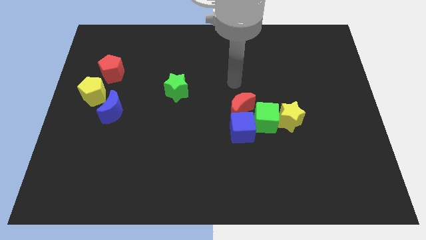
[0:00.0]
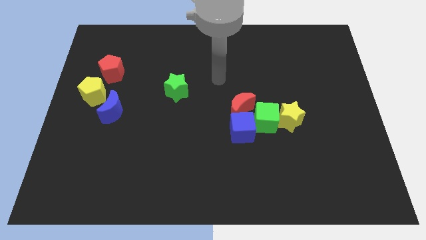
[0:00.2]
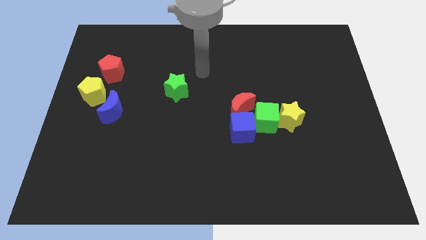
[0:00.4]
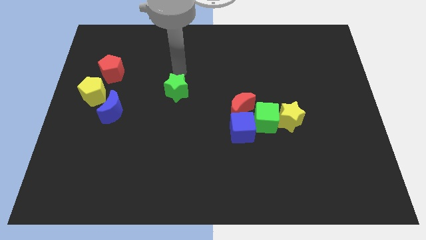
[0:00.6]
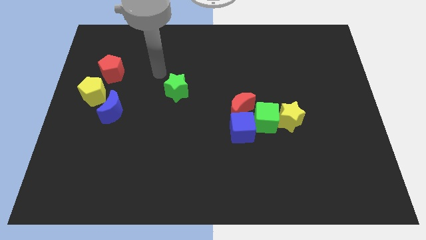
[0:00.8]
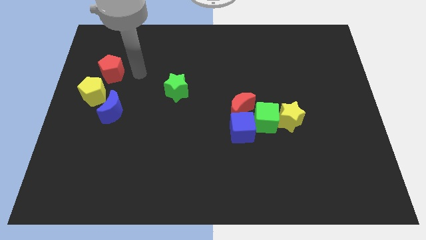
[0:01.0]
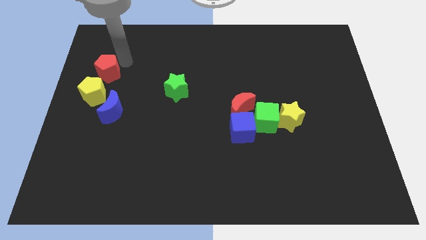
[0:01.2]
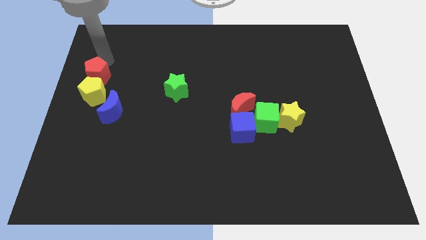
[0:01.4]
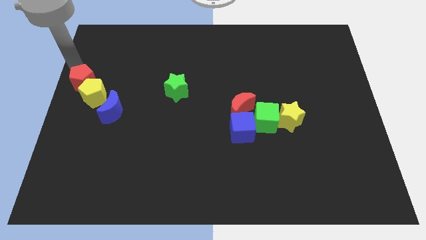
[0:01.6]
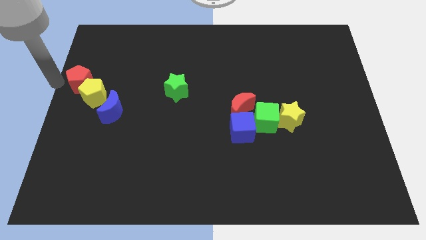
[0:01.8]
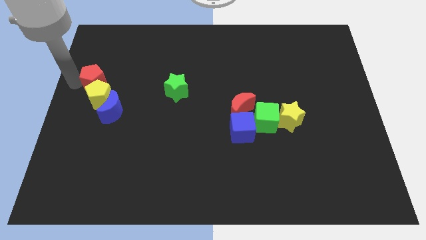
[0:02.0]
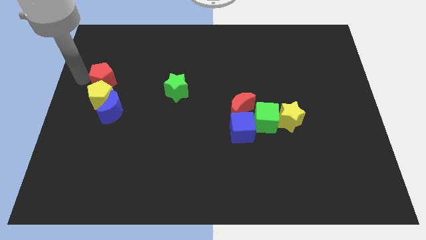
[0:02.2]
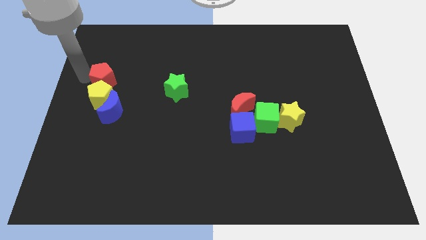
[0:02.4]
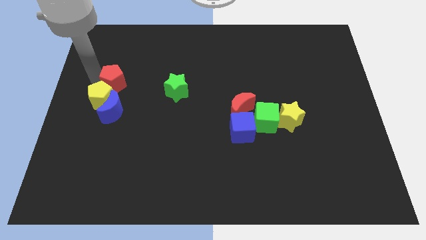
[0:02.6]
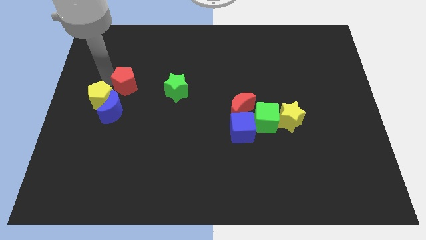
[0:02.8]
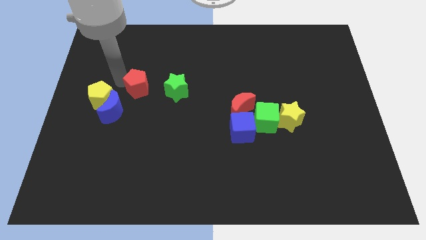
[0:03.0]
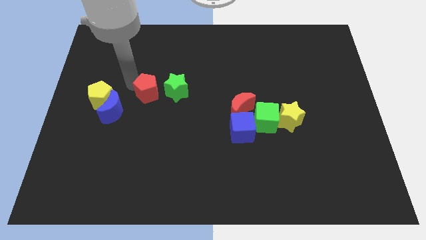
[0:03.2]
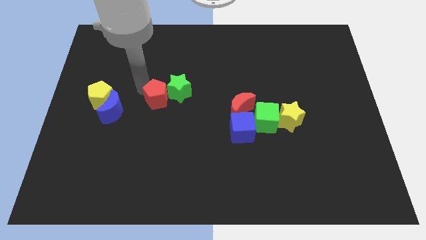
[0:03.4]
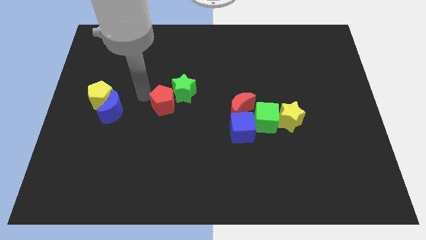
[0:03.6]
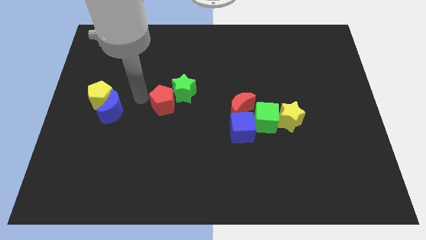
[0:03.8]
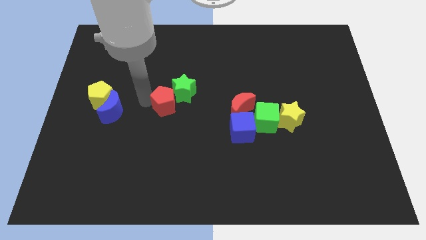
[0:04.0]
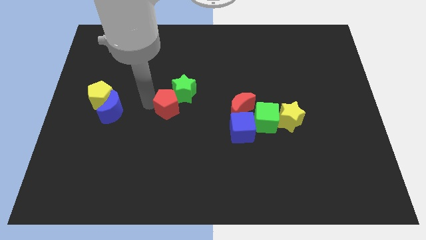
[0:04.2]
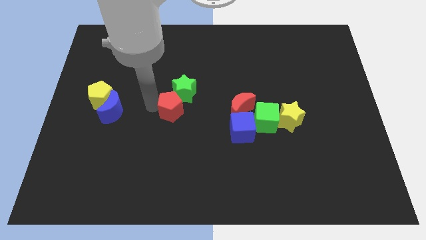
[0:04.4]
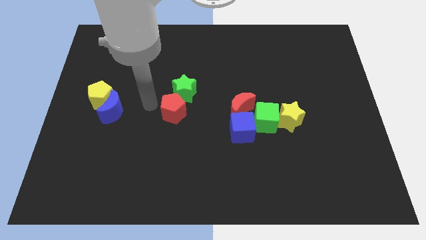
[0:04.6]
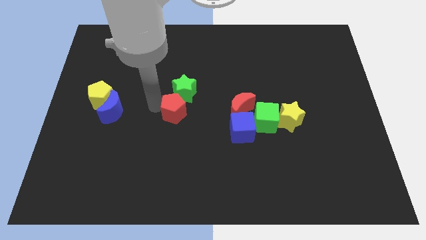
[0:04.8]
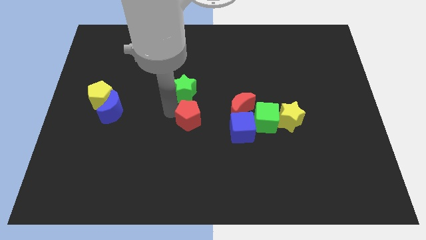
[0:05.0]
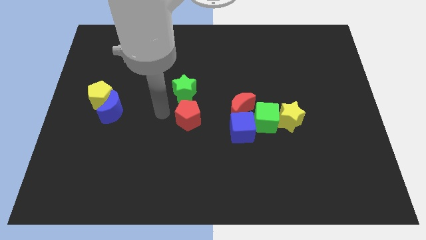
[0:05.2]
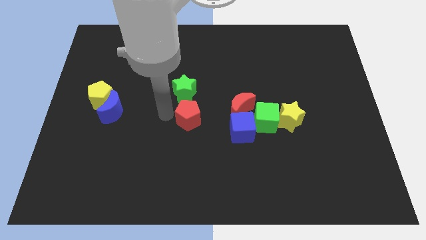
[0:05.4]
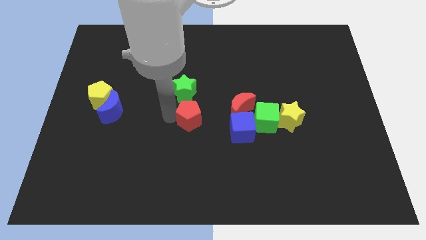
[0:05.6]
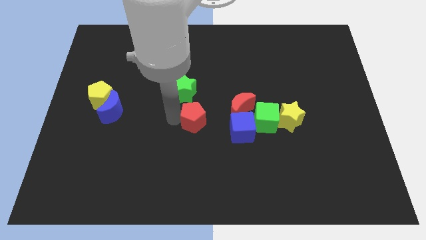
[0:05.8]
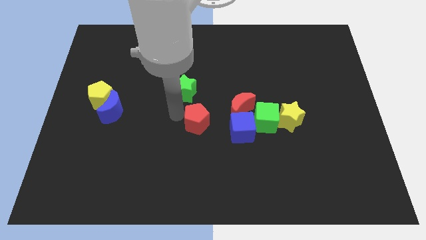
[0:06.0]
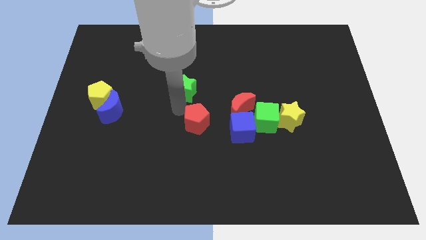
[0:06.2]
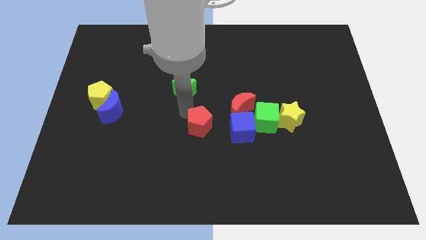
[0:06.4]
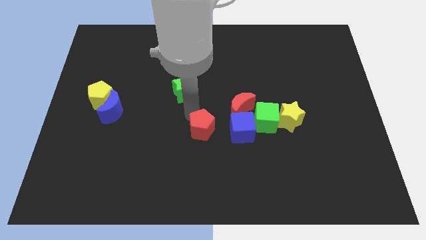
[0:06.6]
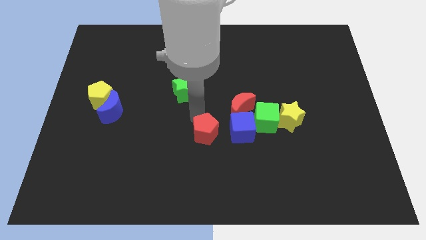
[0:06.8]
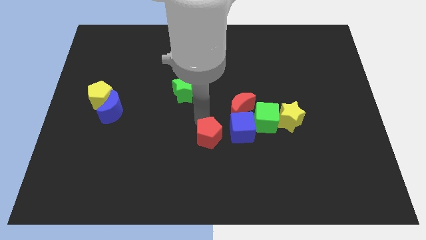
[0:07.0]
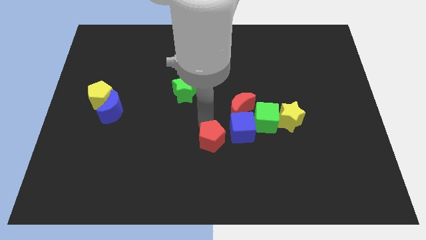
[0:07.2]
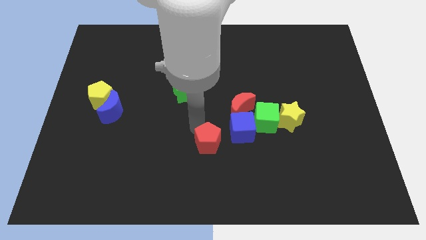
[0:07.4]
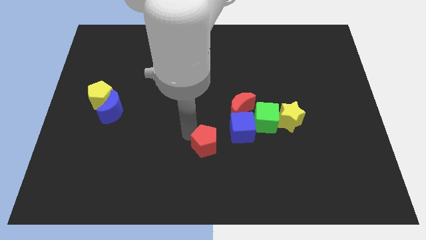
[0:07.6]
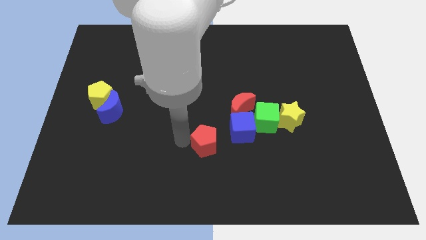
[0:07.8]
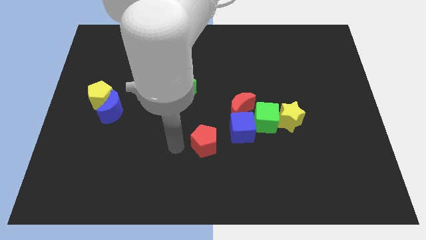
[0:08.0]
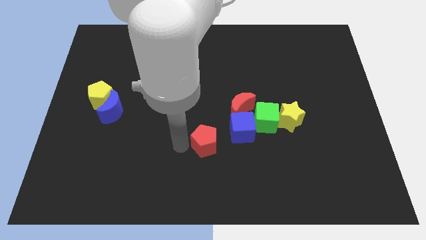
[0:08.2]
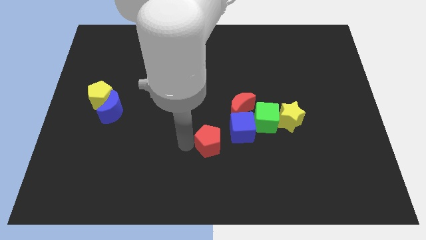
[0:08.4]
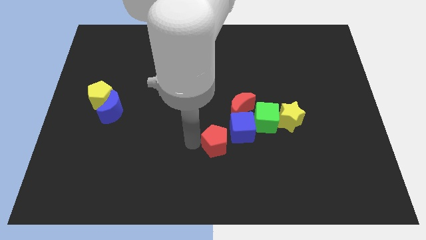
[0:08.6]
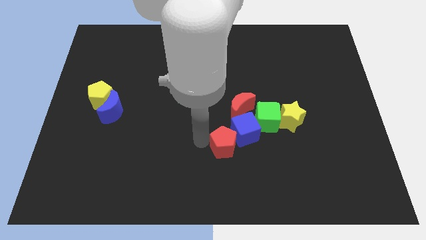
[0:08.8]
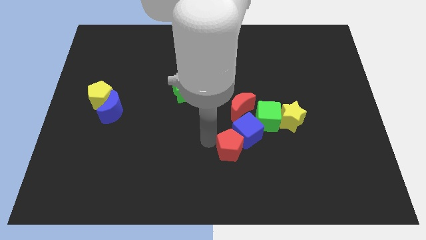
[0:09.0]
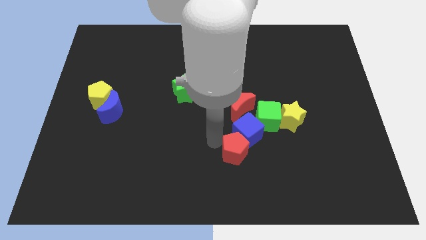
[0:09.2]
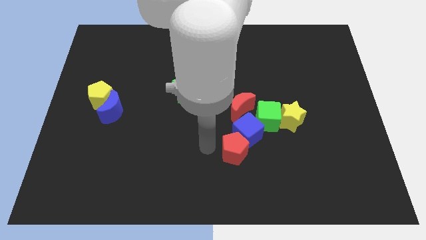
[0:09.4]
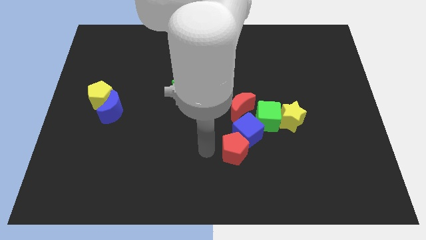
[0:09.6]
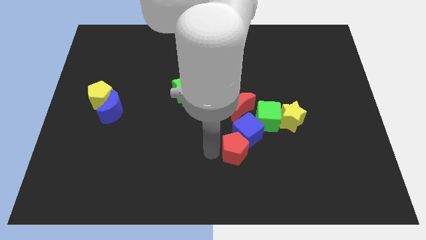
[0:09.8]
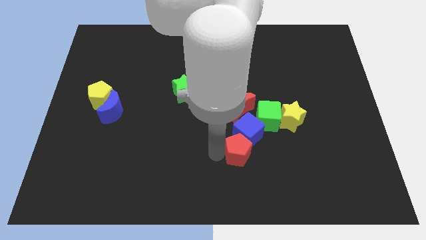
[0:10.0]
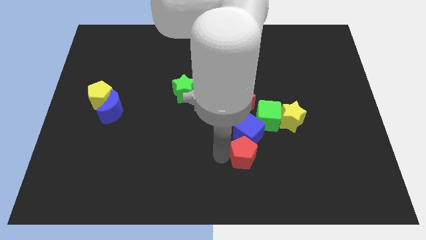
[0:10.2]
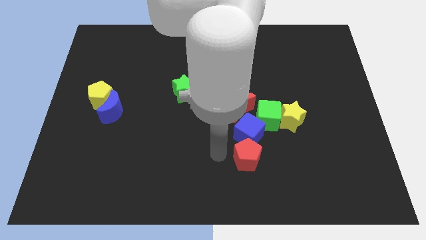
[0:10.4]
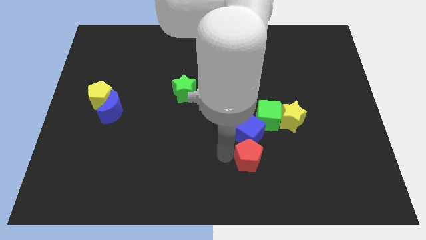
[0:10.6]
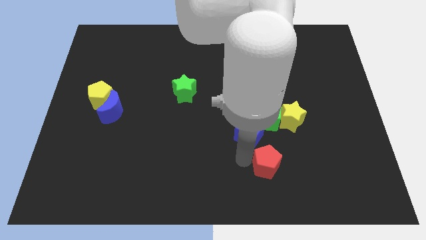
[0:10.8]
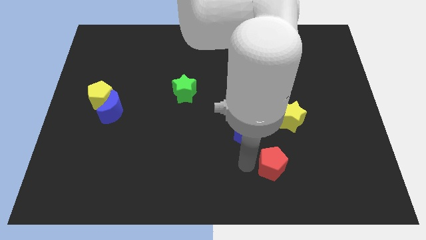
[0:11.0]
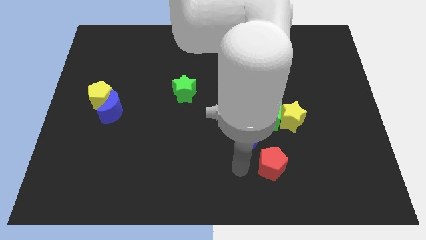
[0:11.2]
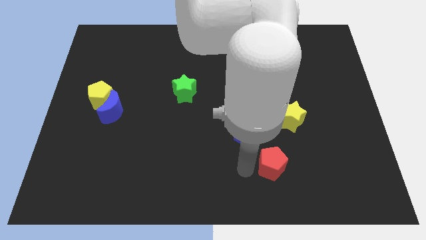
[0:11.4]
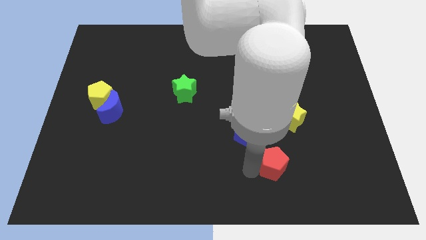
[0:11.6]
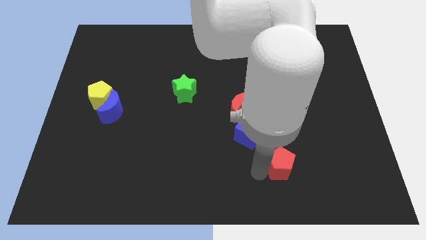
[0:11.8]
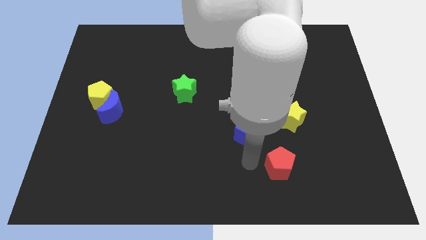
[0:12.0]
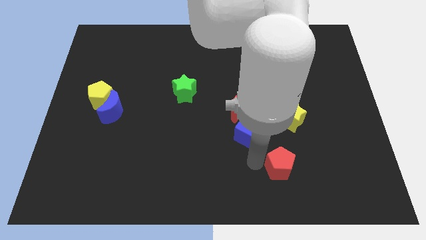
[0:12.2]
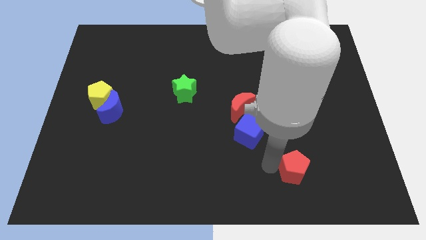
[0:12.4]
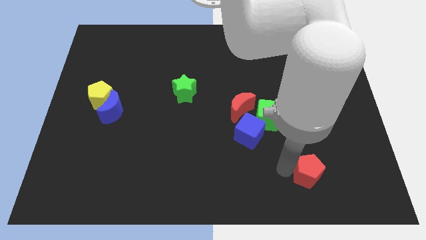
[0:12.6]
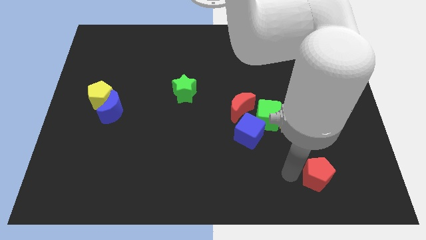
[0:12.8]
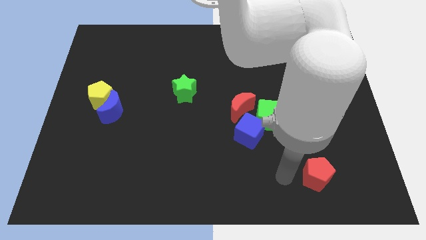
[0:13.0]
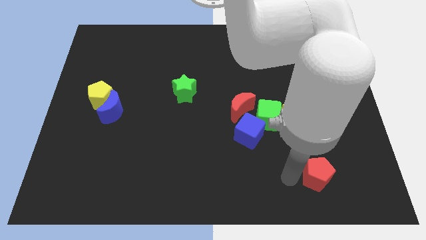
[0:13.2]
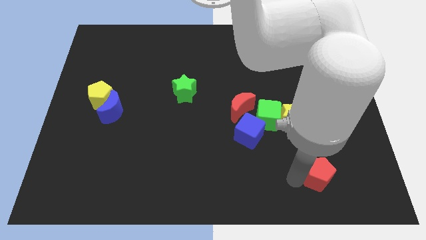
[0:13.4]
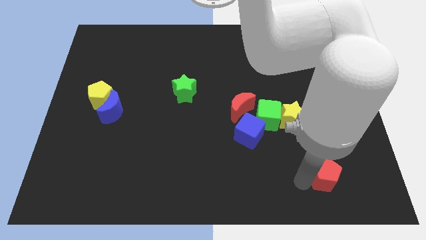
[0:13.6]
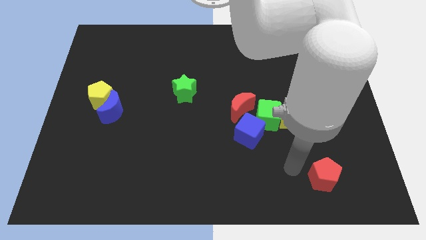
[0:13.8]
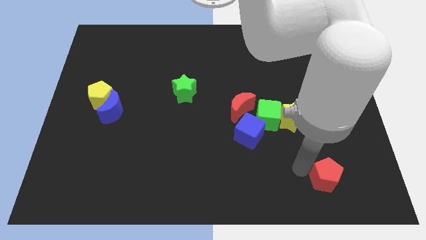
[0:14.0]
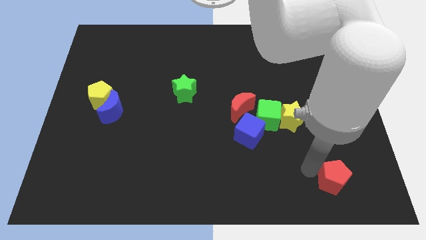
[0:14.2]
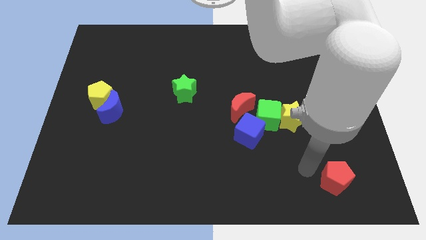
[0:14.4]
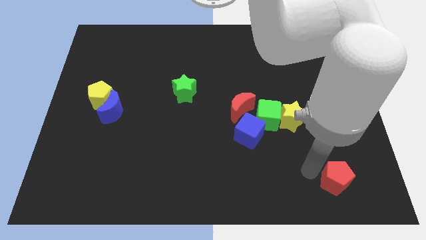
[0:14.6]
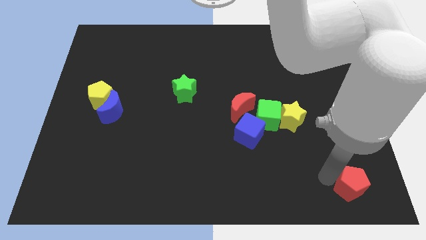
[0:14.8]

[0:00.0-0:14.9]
push the red pentagon to the lower right corner
